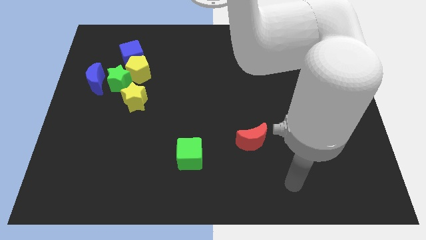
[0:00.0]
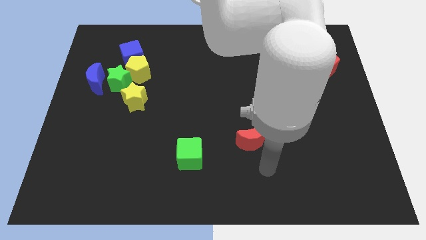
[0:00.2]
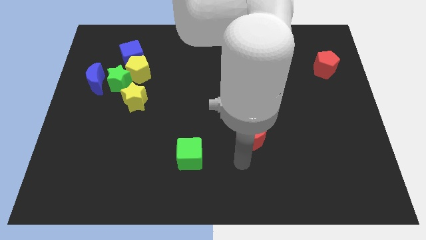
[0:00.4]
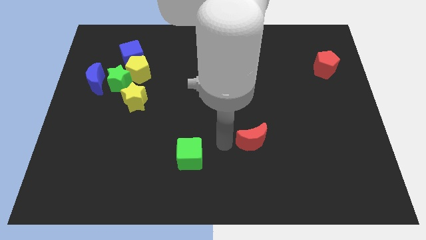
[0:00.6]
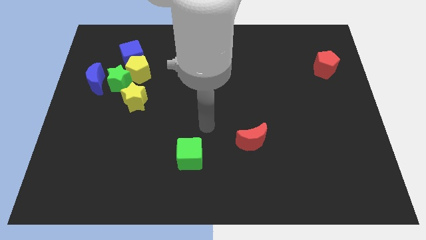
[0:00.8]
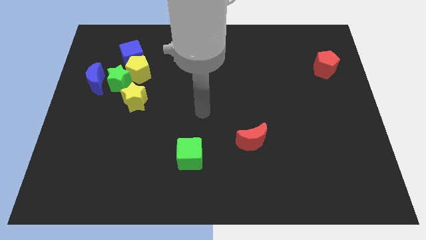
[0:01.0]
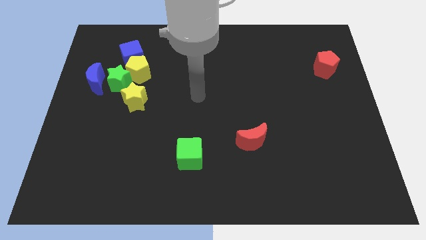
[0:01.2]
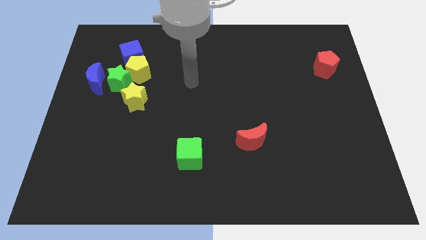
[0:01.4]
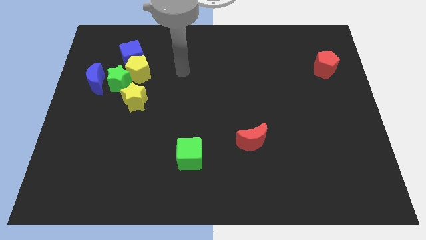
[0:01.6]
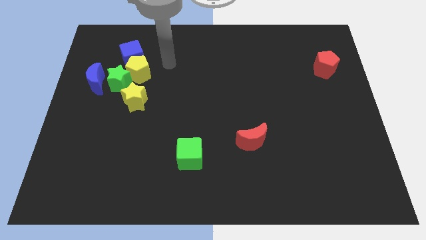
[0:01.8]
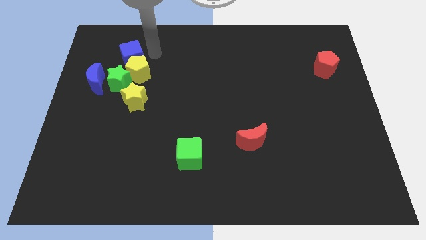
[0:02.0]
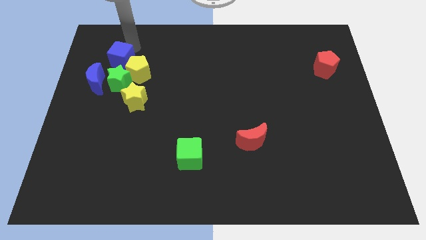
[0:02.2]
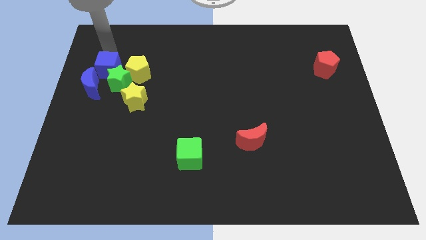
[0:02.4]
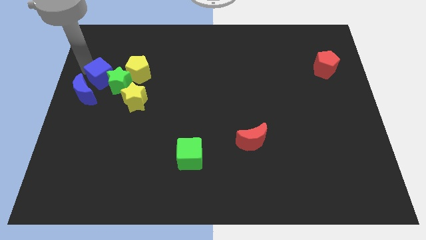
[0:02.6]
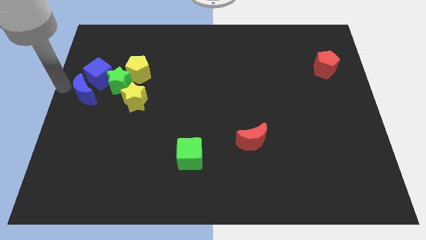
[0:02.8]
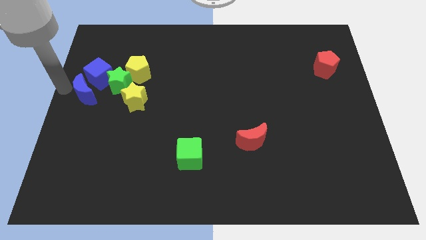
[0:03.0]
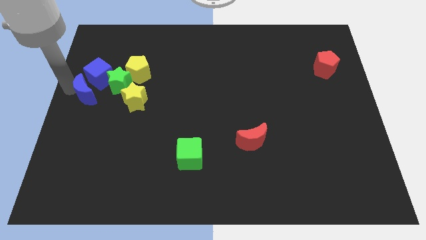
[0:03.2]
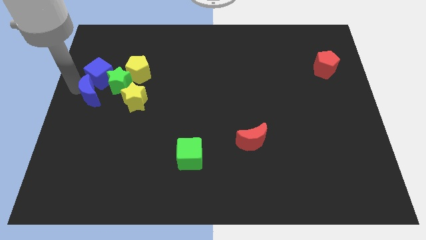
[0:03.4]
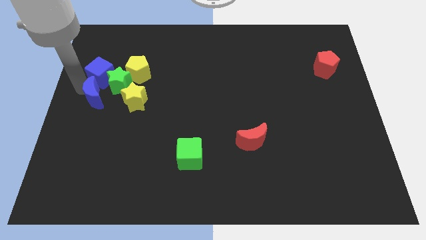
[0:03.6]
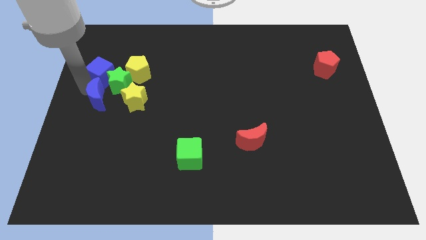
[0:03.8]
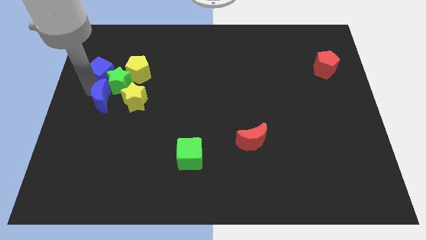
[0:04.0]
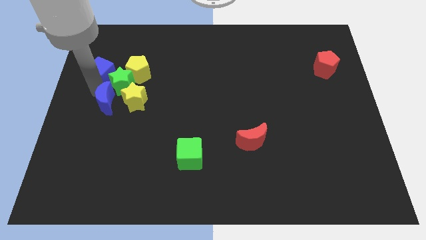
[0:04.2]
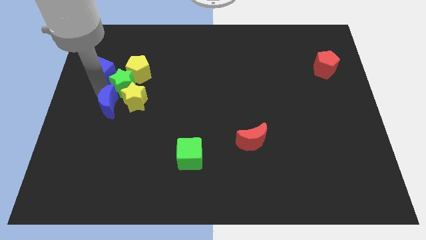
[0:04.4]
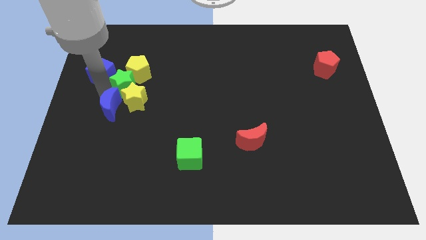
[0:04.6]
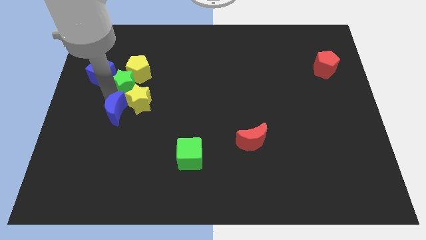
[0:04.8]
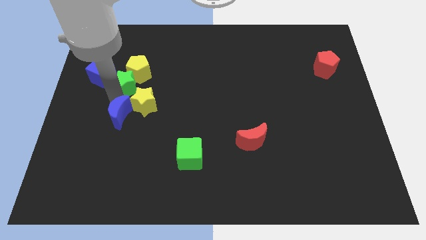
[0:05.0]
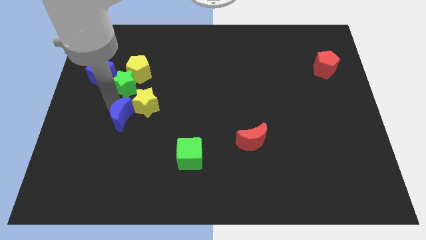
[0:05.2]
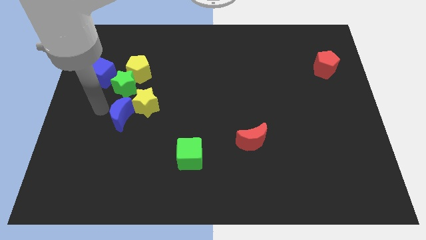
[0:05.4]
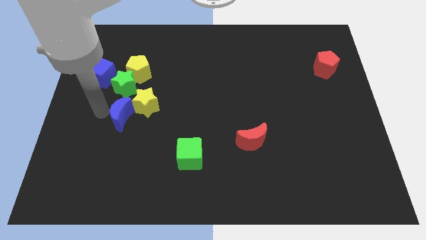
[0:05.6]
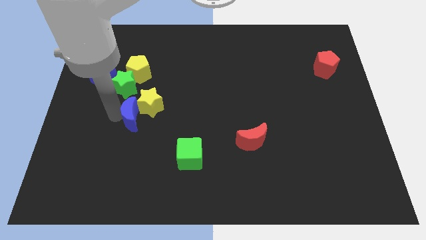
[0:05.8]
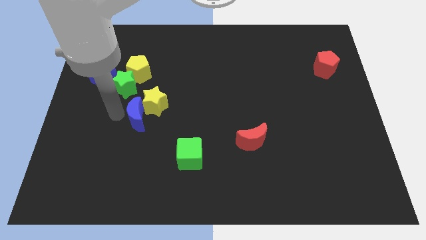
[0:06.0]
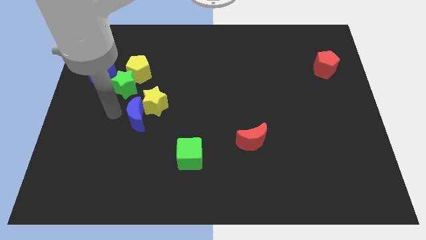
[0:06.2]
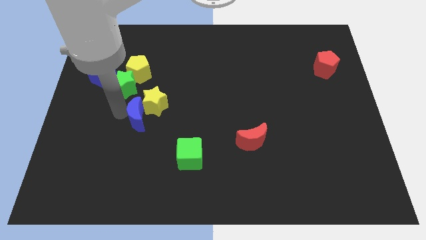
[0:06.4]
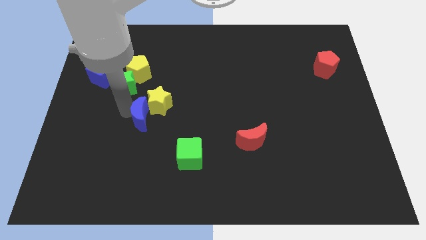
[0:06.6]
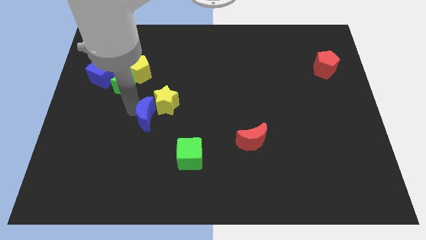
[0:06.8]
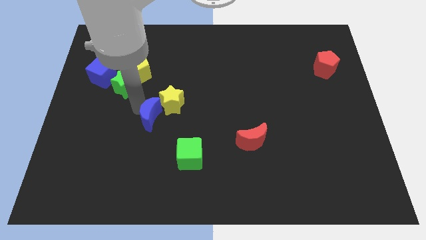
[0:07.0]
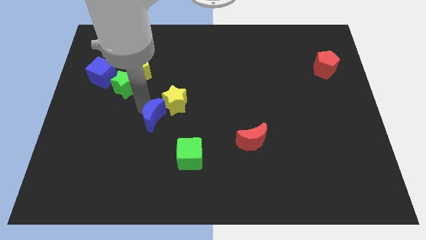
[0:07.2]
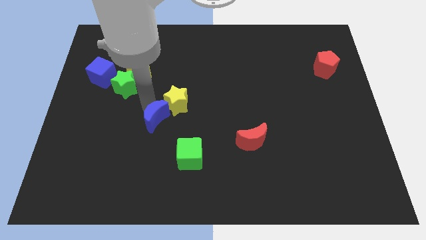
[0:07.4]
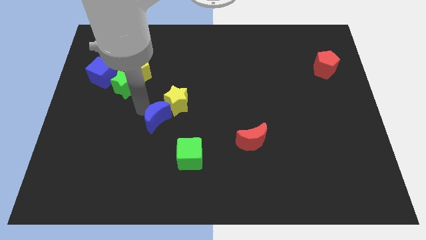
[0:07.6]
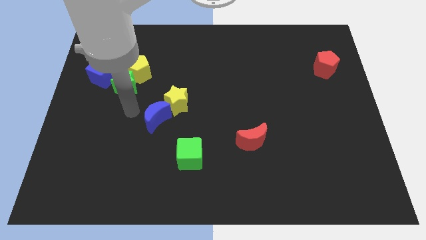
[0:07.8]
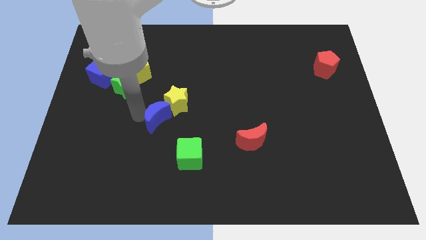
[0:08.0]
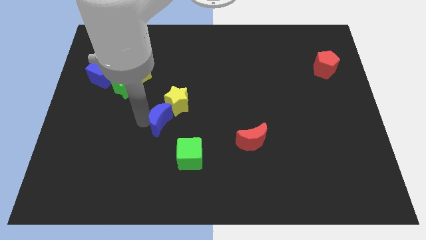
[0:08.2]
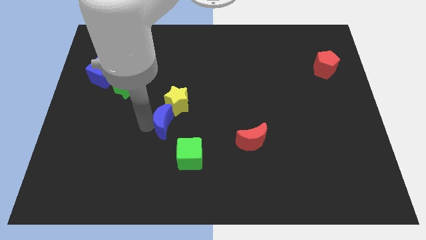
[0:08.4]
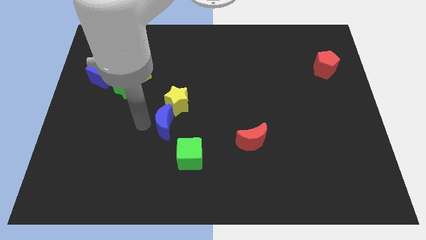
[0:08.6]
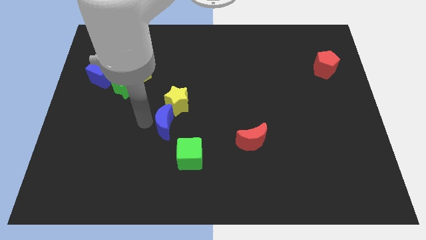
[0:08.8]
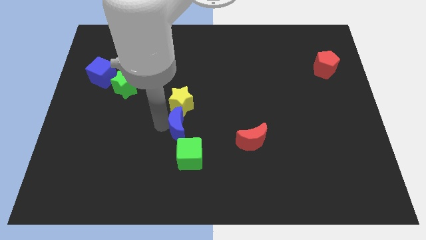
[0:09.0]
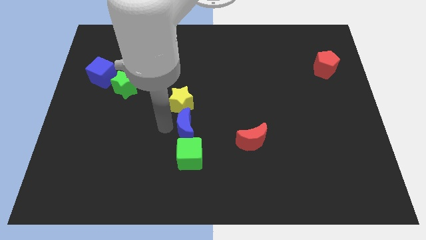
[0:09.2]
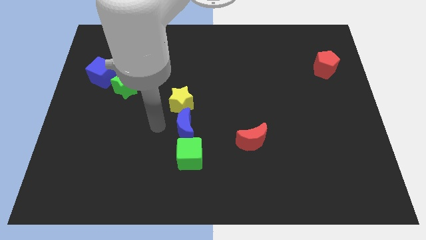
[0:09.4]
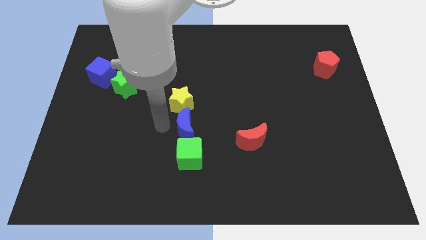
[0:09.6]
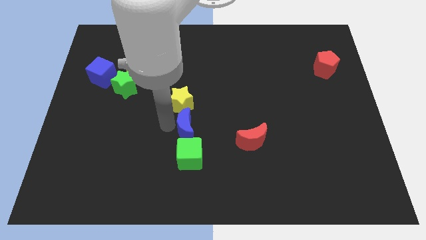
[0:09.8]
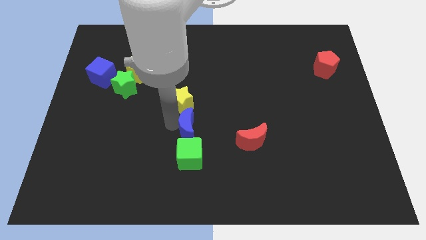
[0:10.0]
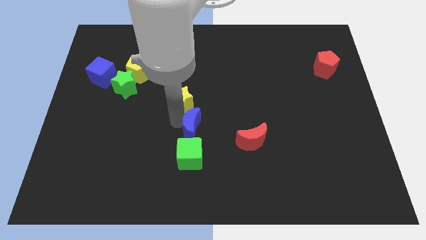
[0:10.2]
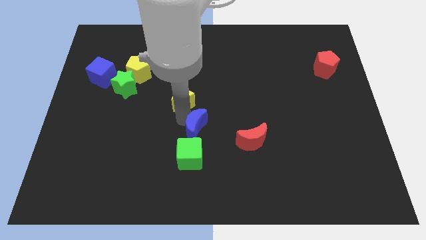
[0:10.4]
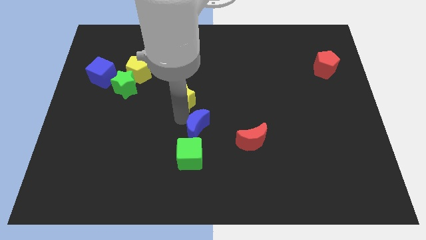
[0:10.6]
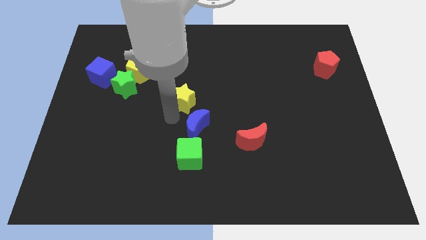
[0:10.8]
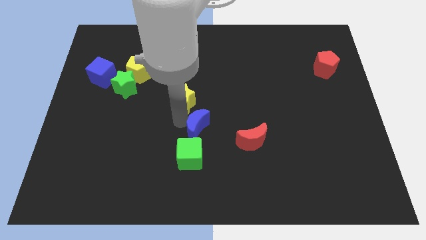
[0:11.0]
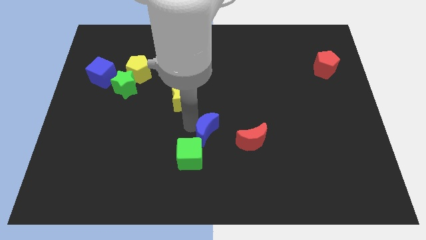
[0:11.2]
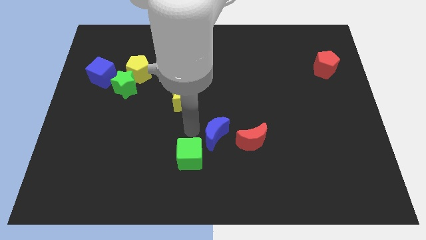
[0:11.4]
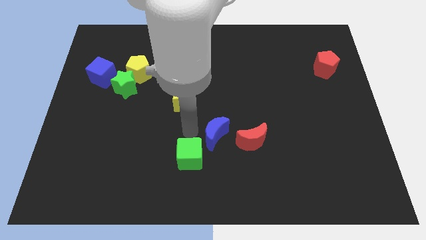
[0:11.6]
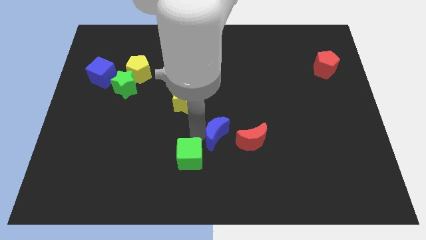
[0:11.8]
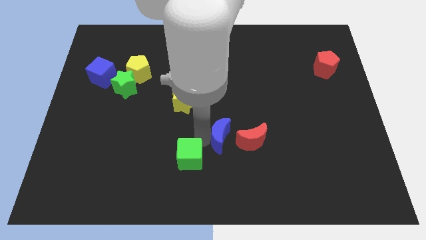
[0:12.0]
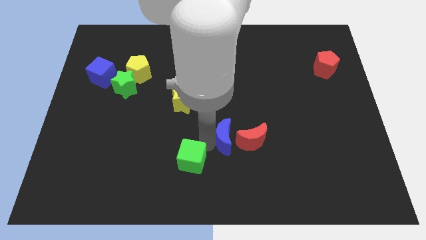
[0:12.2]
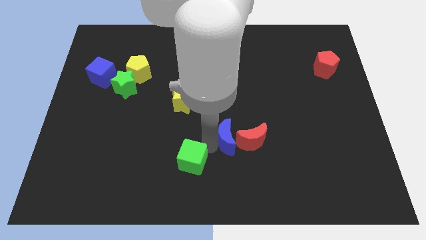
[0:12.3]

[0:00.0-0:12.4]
slide the blue moon towards the red moon
